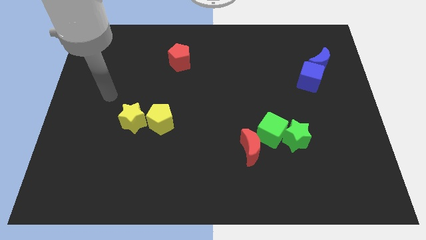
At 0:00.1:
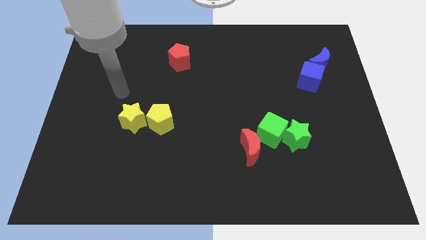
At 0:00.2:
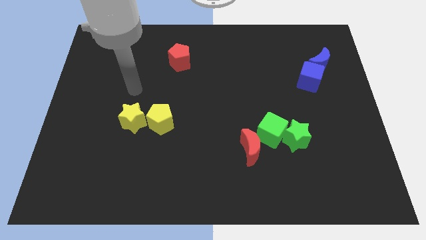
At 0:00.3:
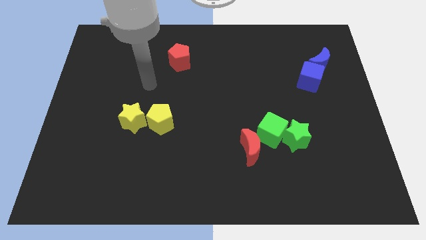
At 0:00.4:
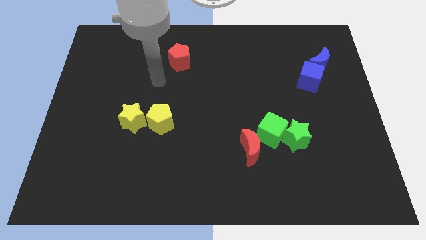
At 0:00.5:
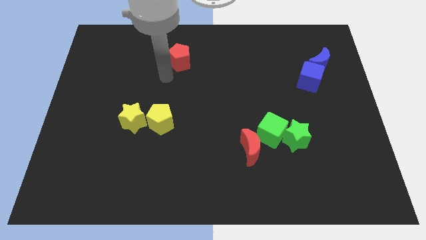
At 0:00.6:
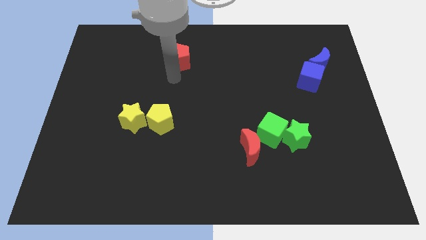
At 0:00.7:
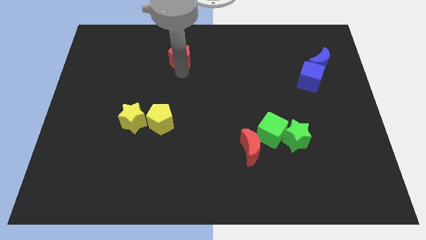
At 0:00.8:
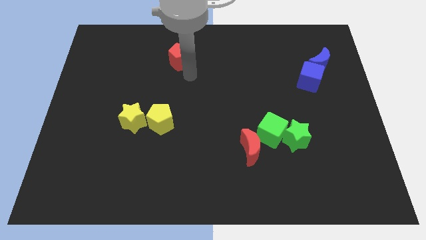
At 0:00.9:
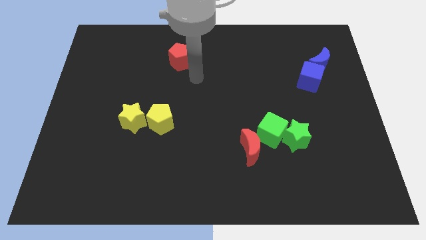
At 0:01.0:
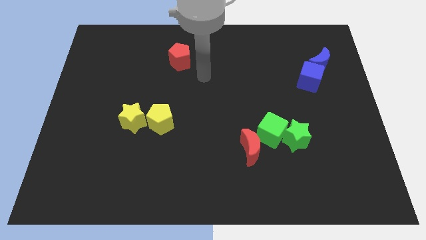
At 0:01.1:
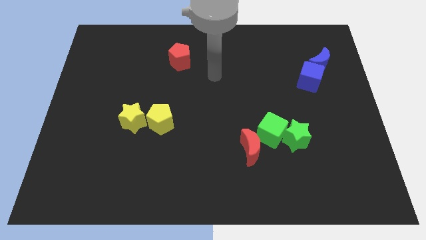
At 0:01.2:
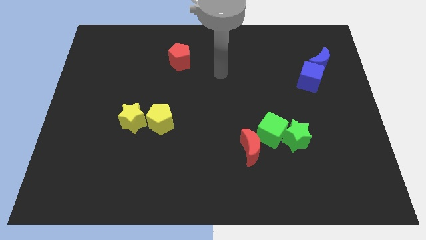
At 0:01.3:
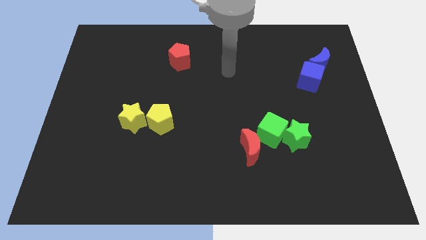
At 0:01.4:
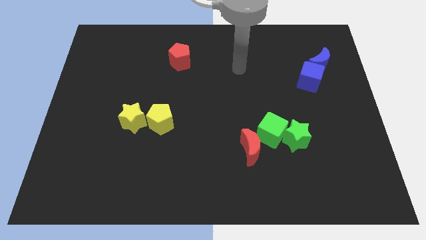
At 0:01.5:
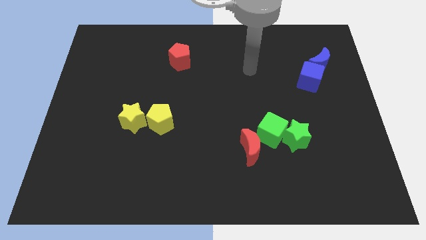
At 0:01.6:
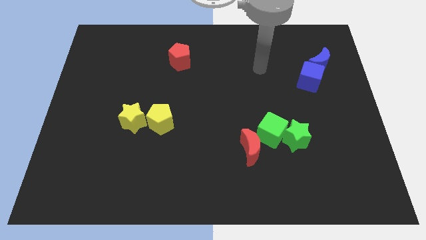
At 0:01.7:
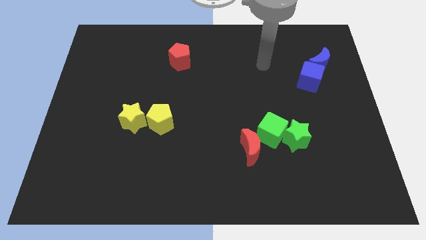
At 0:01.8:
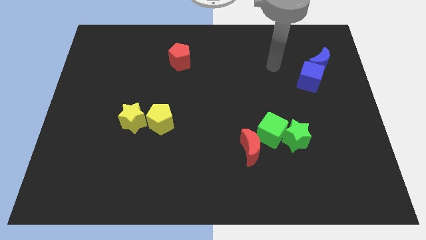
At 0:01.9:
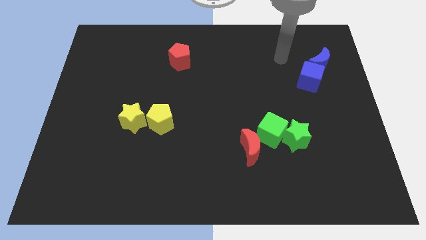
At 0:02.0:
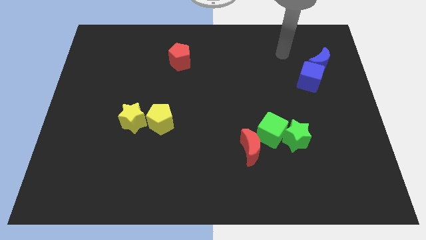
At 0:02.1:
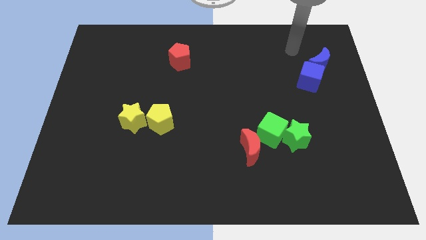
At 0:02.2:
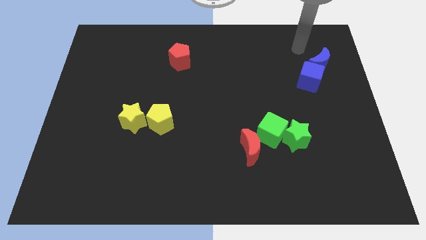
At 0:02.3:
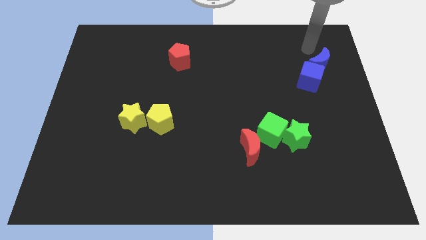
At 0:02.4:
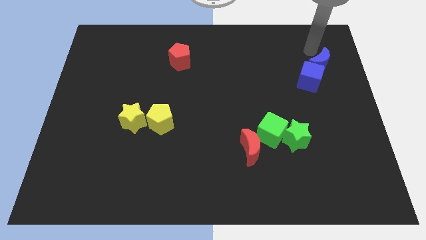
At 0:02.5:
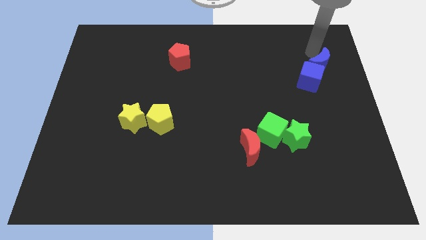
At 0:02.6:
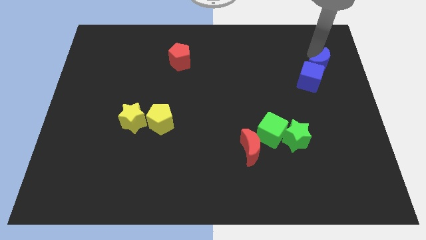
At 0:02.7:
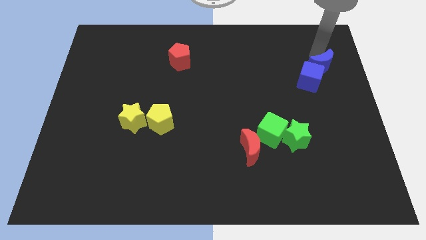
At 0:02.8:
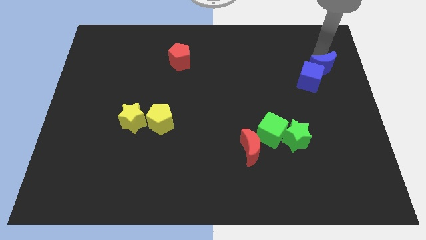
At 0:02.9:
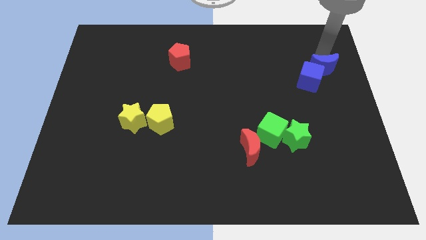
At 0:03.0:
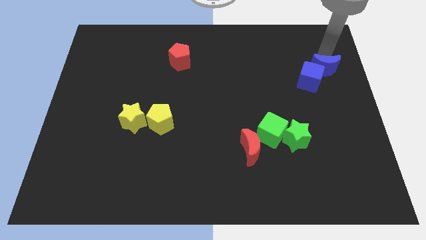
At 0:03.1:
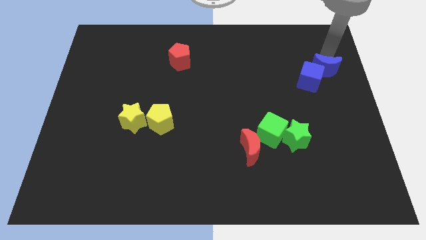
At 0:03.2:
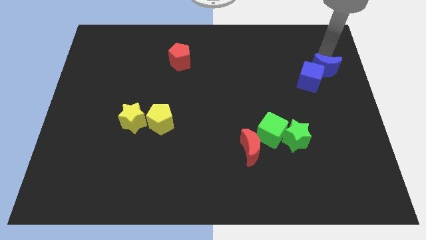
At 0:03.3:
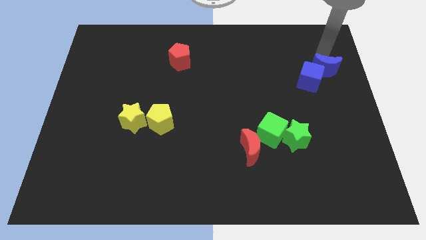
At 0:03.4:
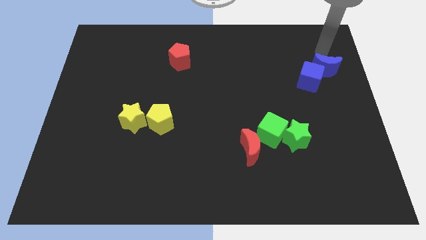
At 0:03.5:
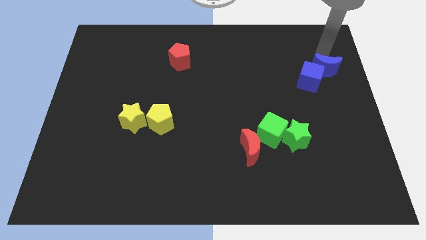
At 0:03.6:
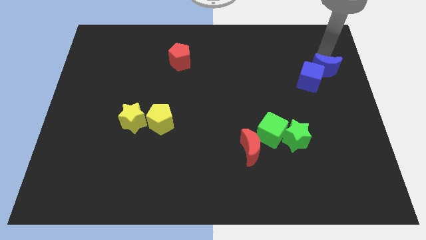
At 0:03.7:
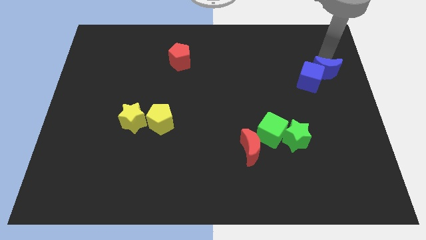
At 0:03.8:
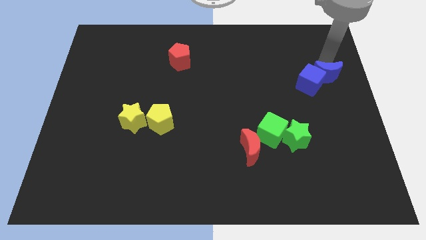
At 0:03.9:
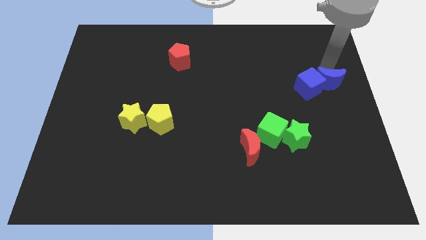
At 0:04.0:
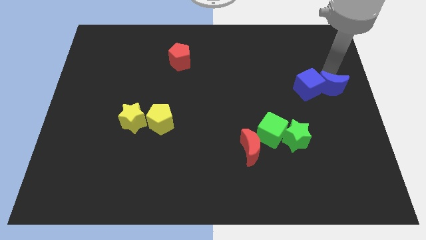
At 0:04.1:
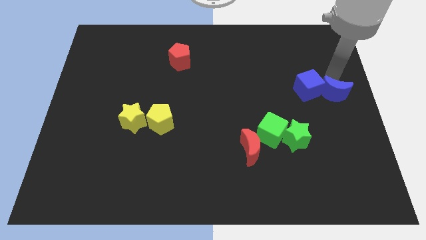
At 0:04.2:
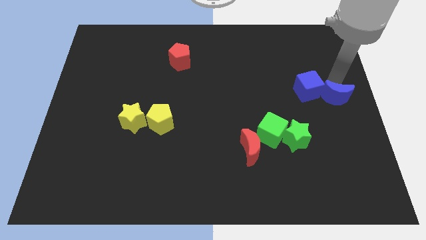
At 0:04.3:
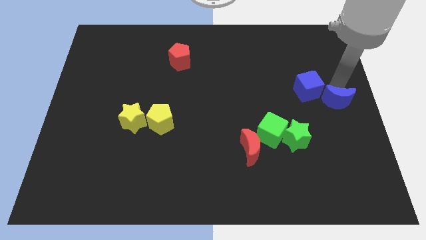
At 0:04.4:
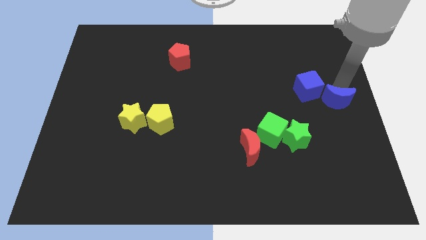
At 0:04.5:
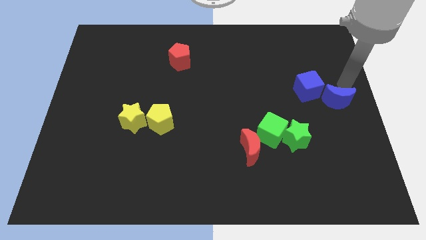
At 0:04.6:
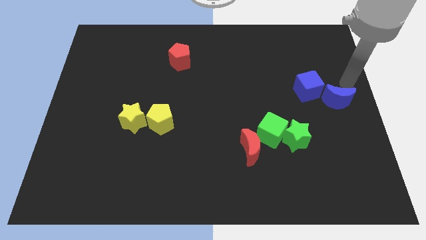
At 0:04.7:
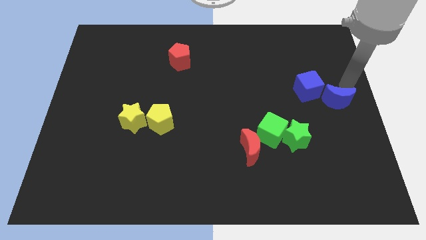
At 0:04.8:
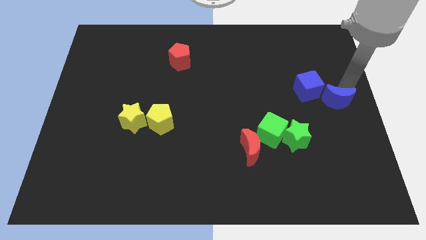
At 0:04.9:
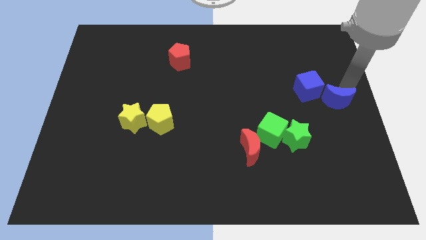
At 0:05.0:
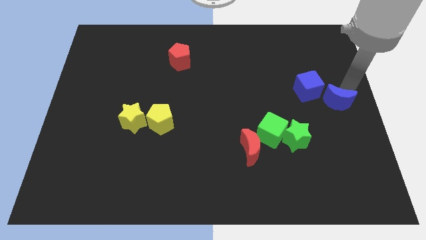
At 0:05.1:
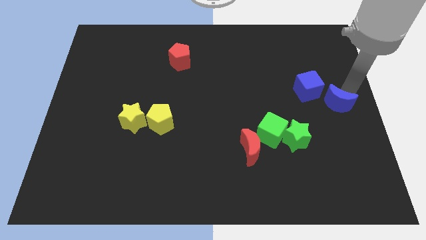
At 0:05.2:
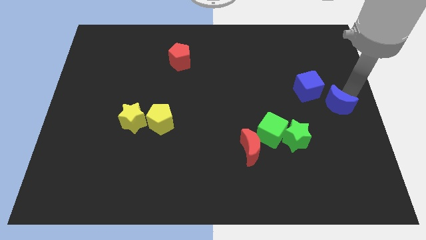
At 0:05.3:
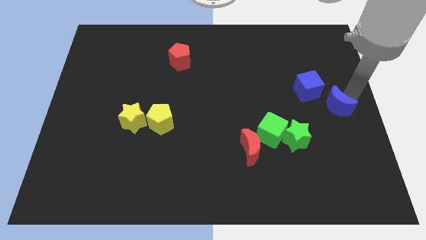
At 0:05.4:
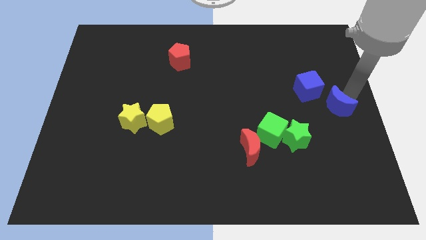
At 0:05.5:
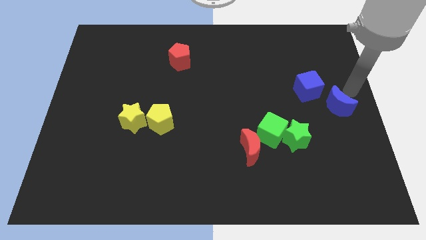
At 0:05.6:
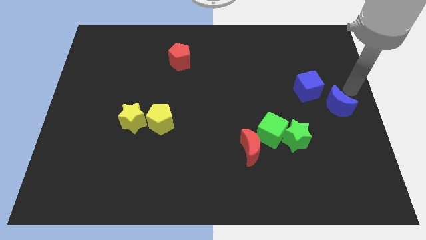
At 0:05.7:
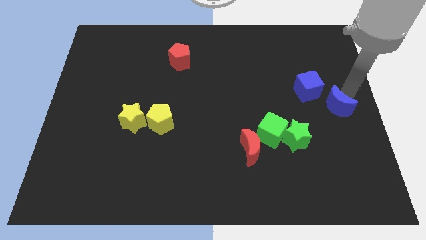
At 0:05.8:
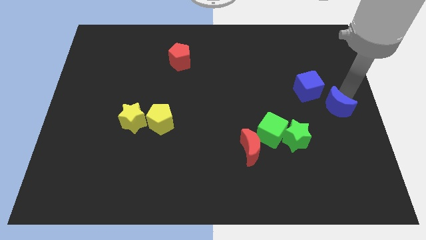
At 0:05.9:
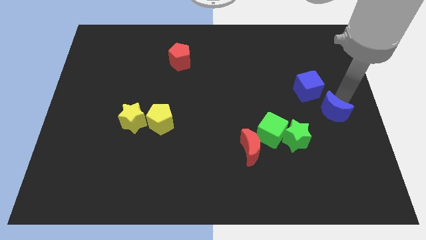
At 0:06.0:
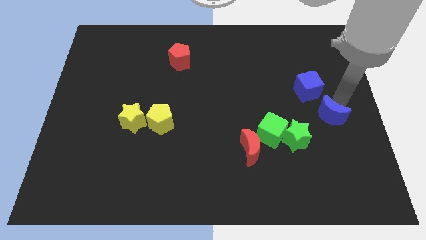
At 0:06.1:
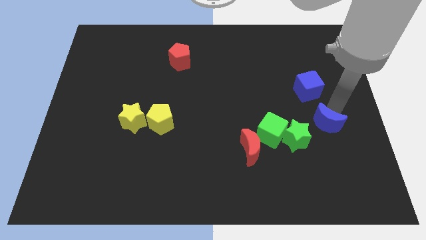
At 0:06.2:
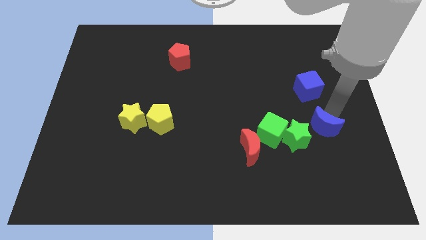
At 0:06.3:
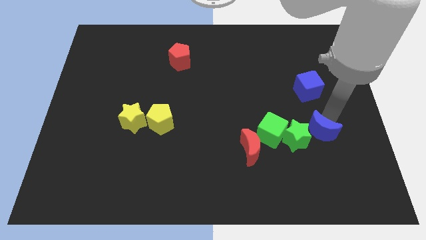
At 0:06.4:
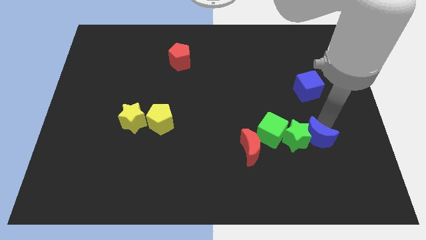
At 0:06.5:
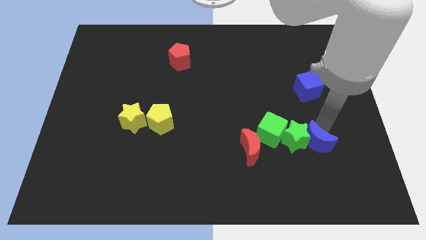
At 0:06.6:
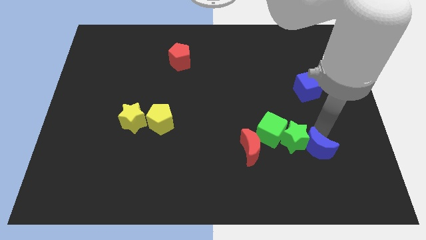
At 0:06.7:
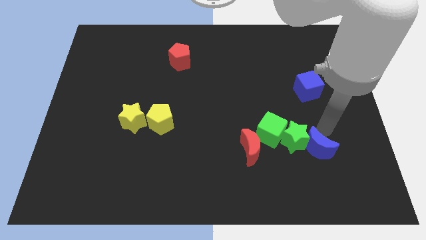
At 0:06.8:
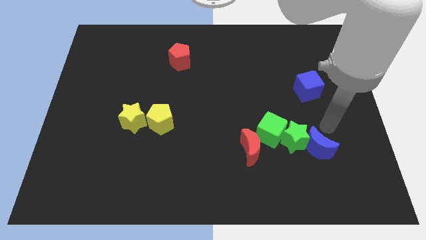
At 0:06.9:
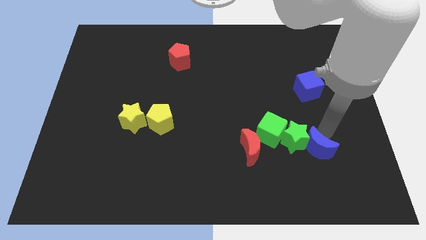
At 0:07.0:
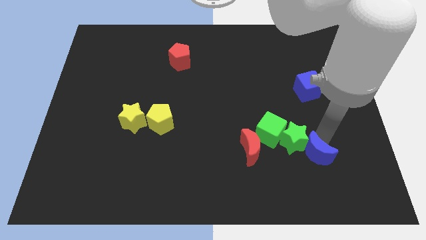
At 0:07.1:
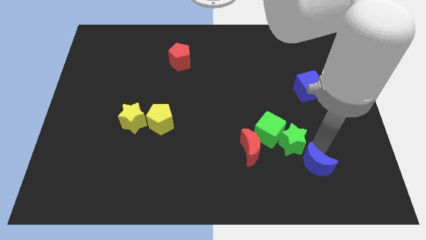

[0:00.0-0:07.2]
push the blue moon below the green star

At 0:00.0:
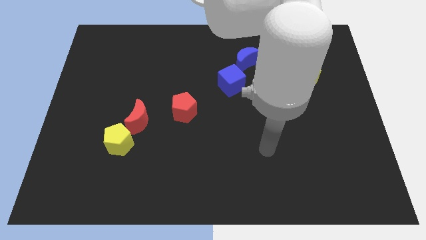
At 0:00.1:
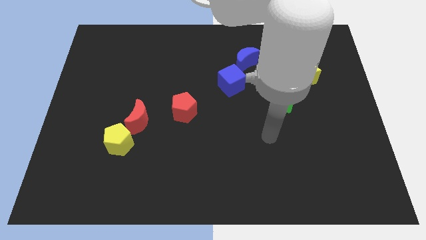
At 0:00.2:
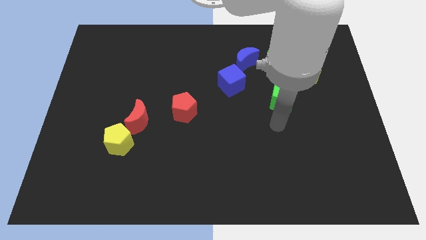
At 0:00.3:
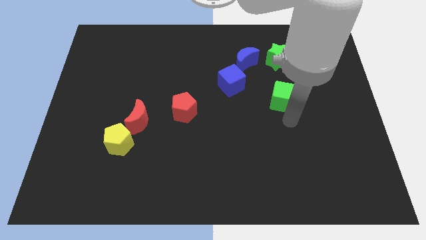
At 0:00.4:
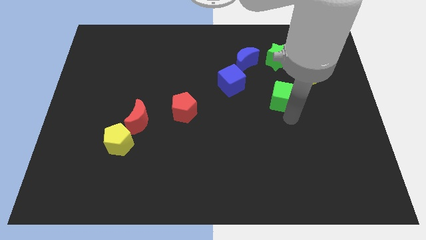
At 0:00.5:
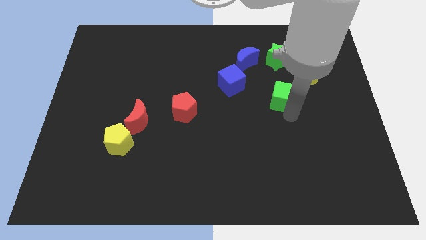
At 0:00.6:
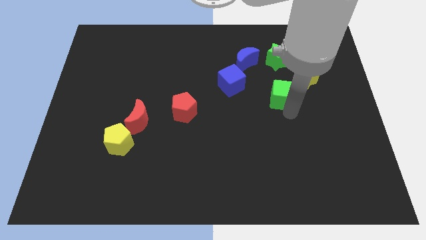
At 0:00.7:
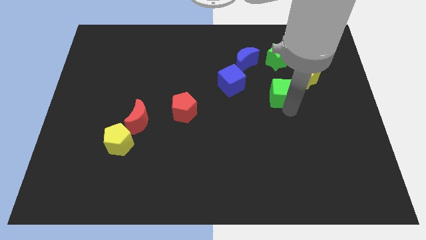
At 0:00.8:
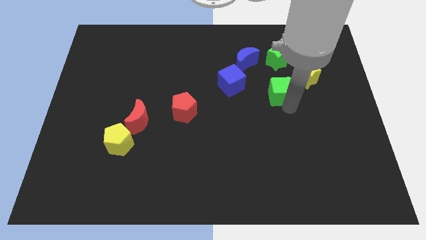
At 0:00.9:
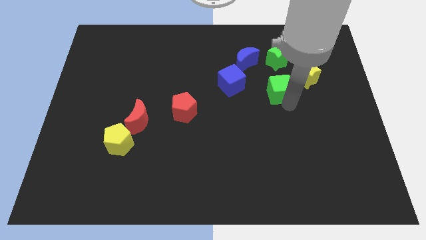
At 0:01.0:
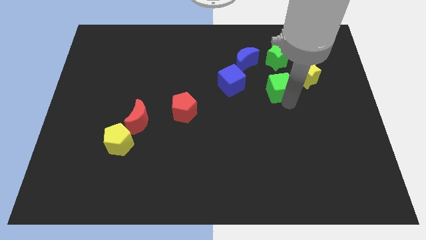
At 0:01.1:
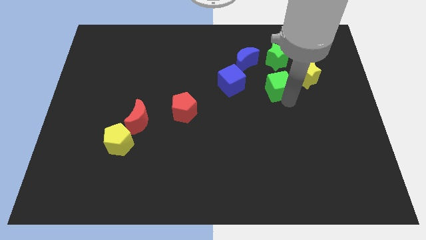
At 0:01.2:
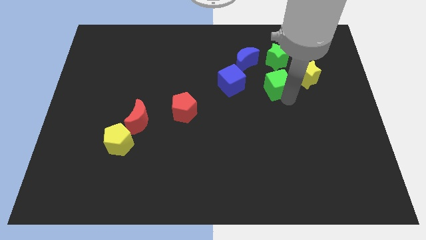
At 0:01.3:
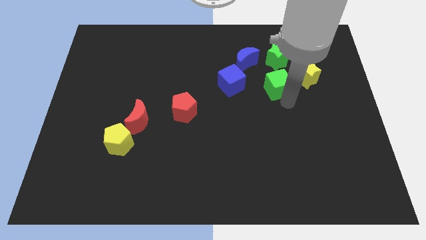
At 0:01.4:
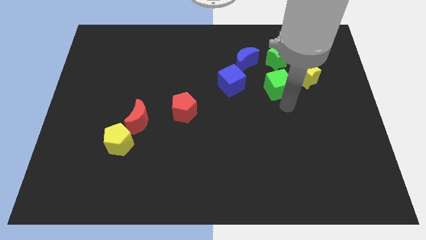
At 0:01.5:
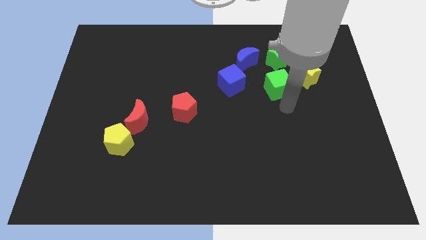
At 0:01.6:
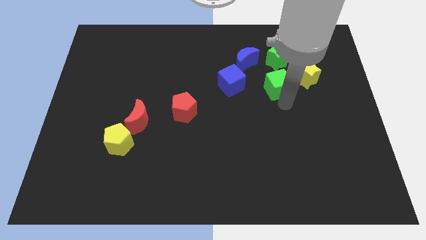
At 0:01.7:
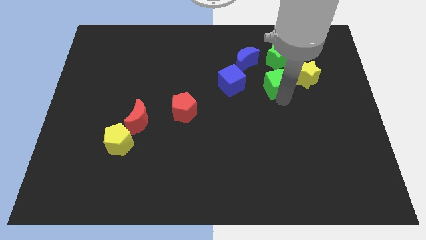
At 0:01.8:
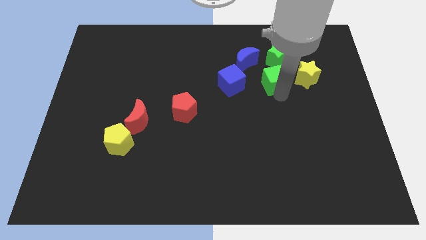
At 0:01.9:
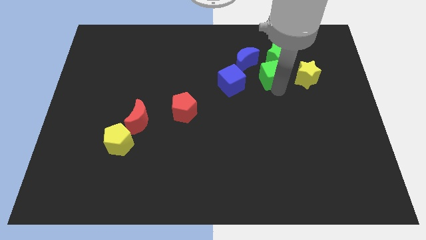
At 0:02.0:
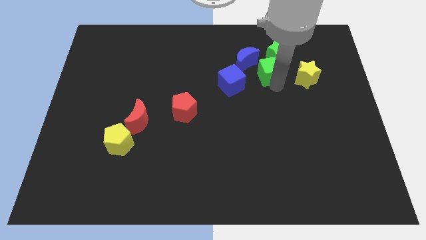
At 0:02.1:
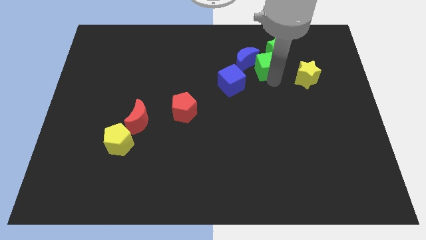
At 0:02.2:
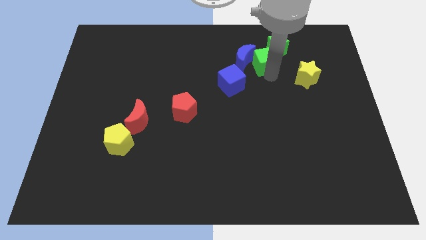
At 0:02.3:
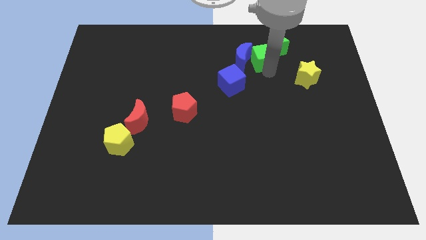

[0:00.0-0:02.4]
slide the green cube left of the green star
